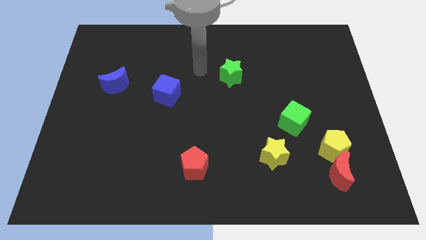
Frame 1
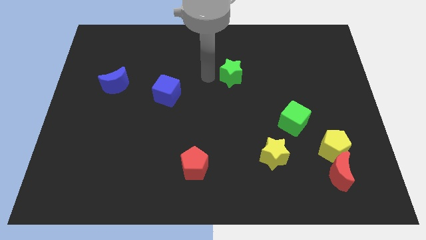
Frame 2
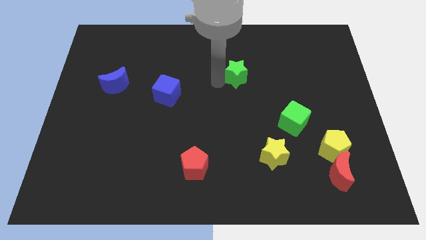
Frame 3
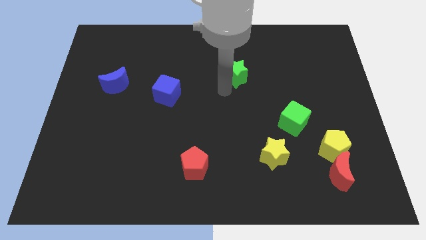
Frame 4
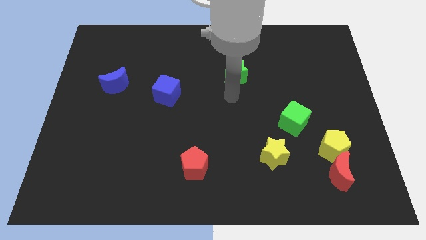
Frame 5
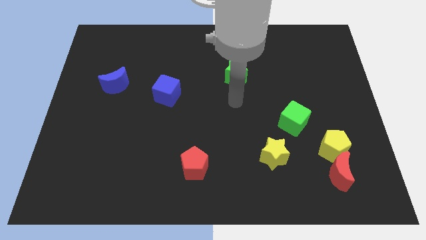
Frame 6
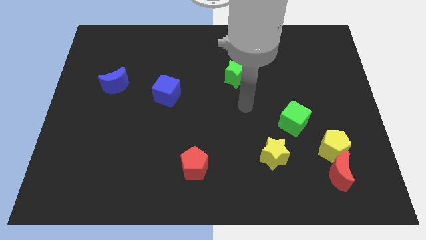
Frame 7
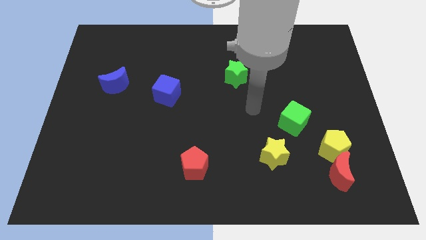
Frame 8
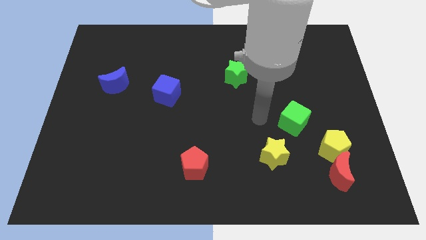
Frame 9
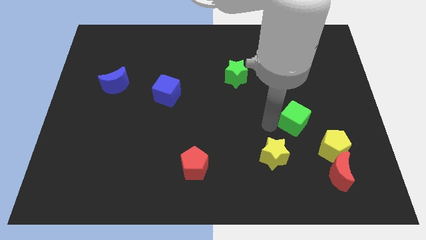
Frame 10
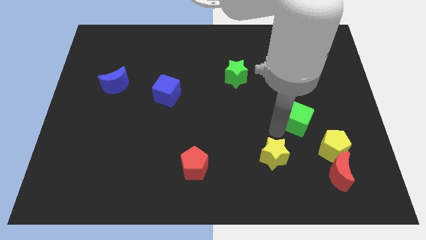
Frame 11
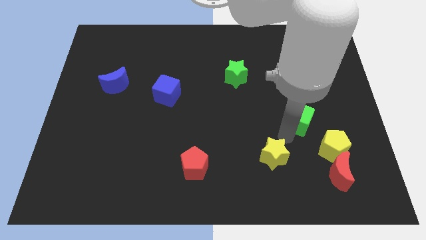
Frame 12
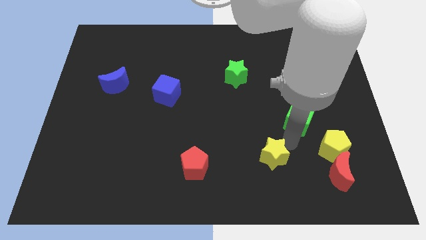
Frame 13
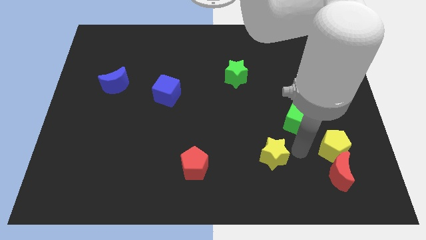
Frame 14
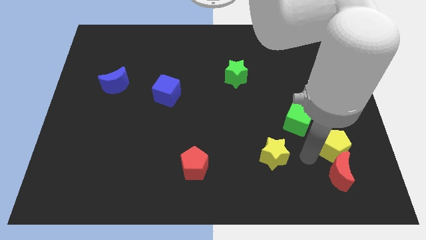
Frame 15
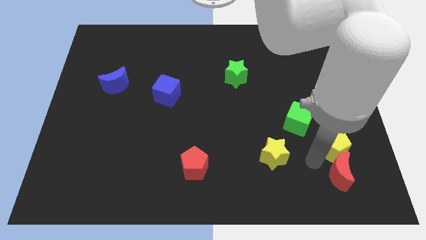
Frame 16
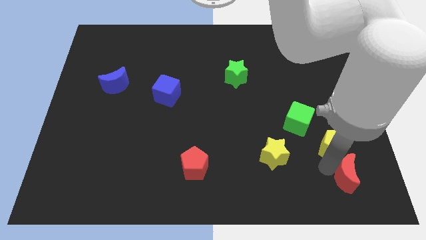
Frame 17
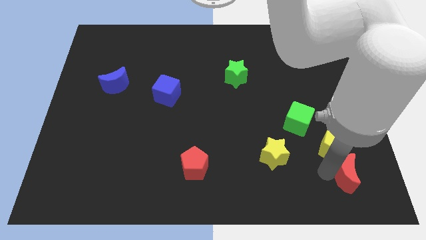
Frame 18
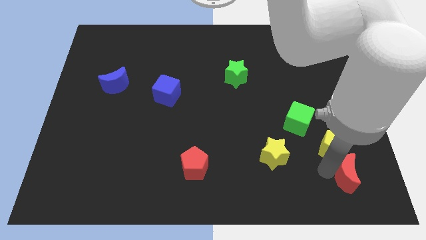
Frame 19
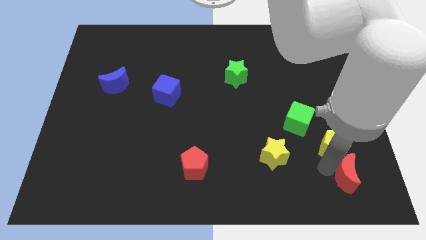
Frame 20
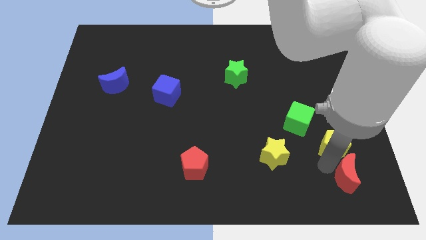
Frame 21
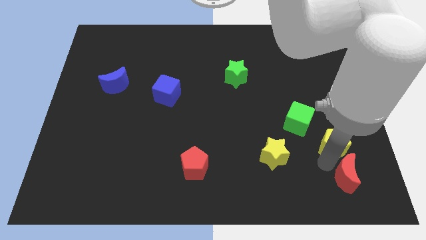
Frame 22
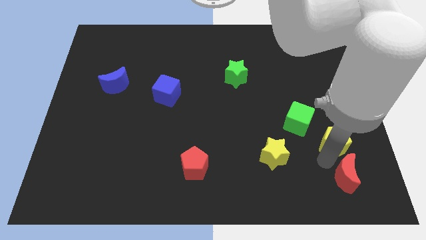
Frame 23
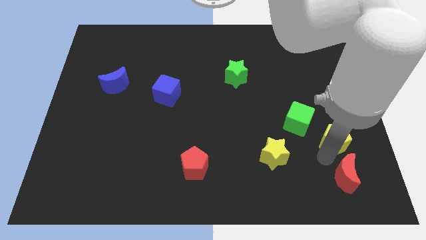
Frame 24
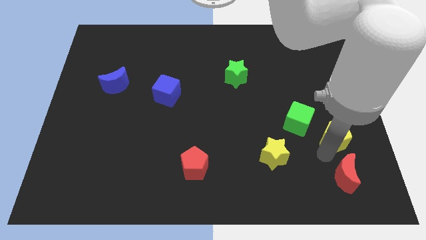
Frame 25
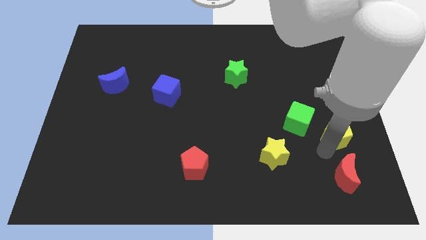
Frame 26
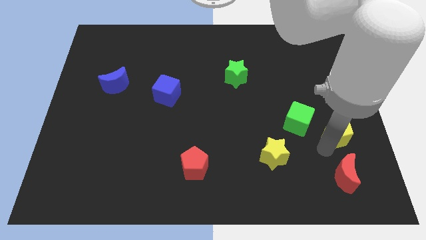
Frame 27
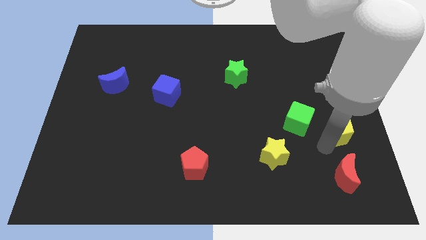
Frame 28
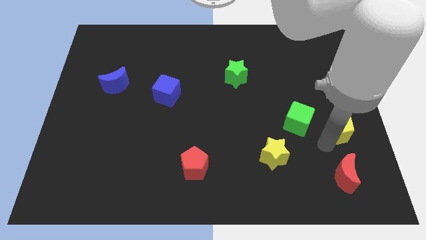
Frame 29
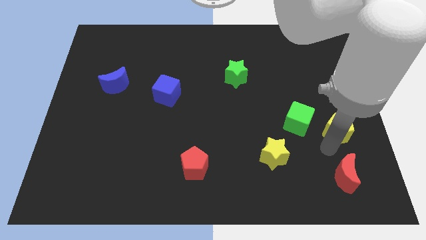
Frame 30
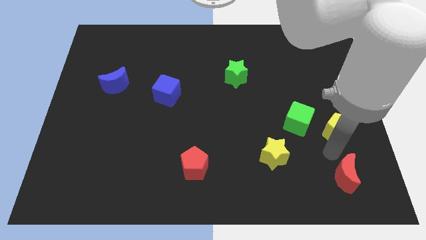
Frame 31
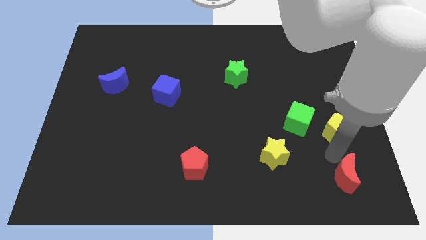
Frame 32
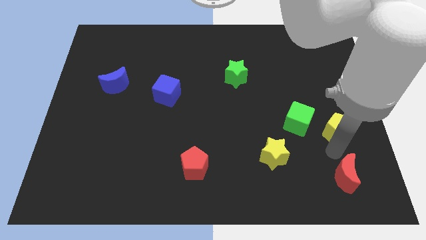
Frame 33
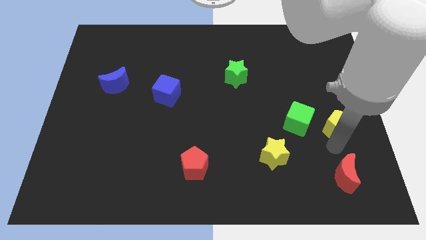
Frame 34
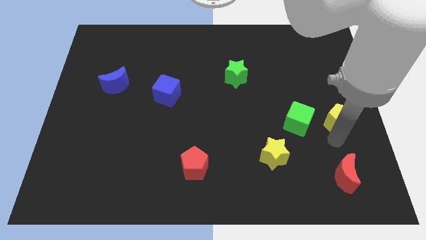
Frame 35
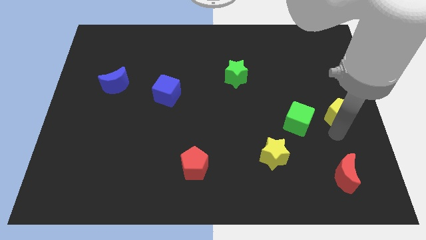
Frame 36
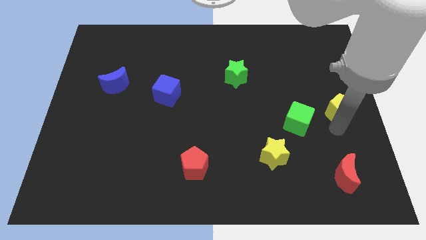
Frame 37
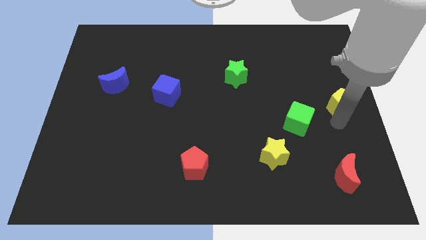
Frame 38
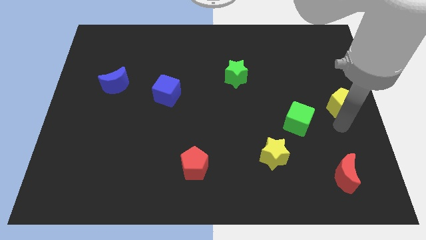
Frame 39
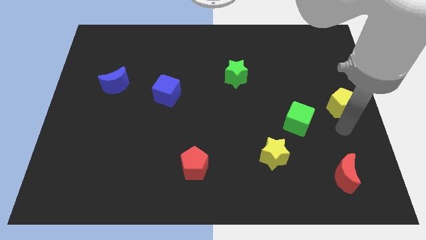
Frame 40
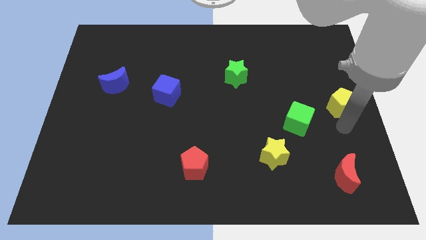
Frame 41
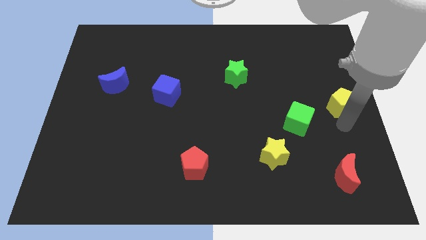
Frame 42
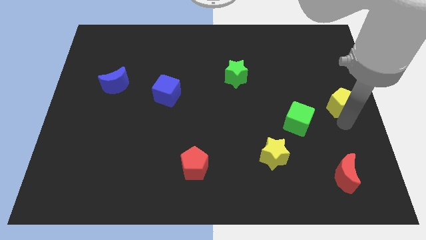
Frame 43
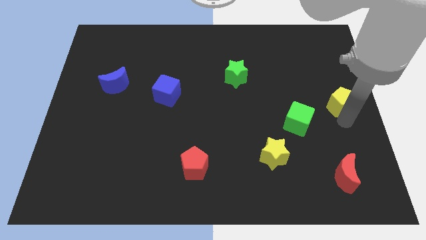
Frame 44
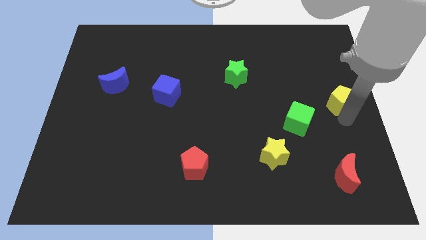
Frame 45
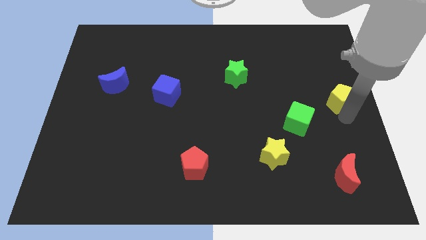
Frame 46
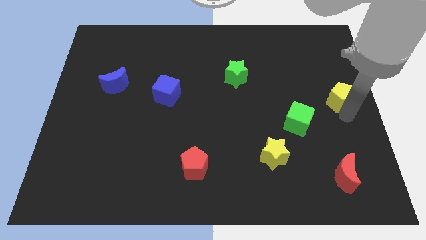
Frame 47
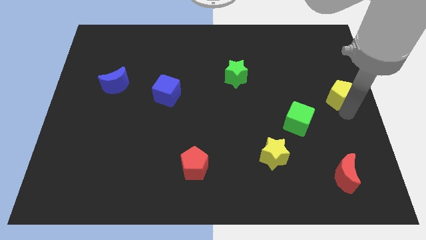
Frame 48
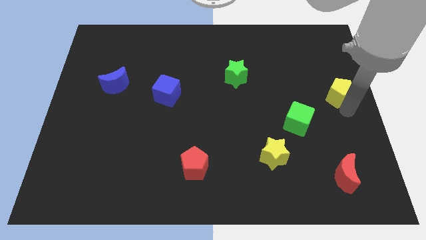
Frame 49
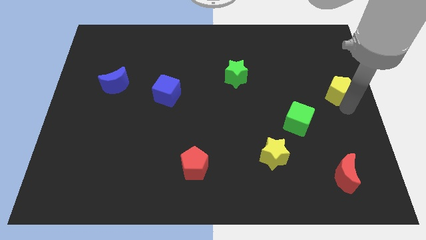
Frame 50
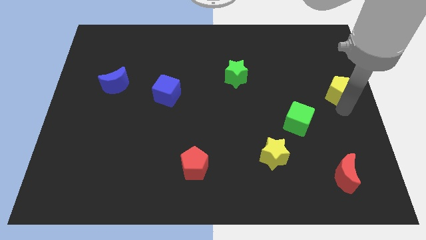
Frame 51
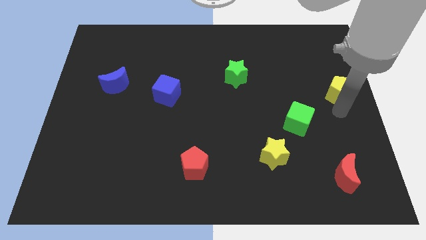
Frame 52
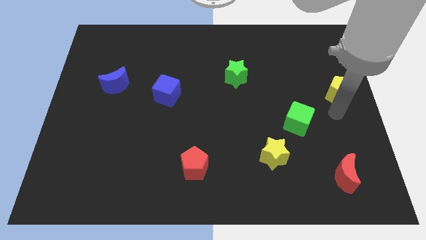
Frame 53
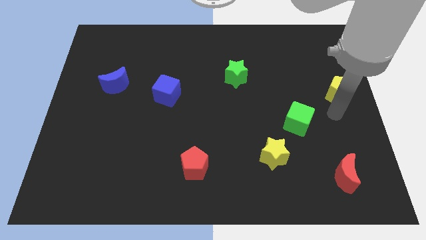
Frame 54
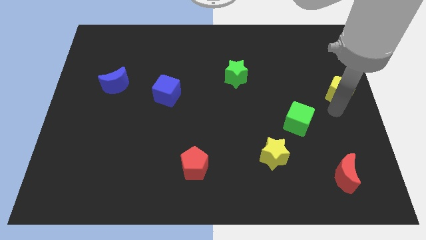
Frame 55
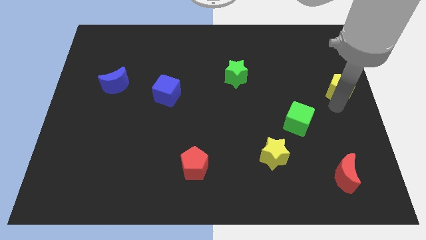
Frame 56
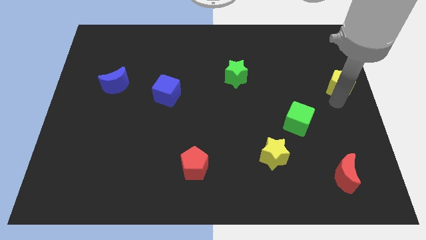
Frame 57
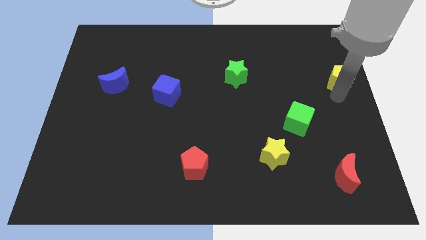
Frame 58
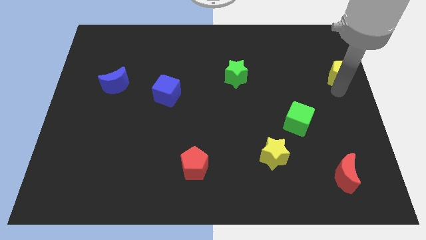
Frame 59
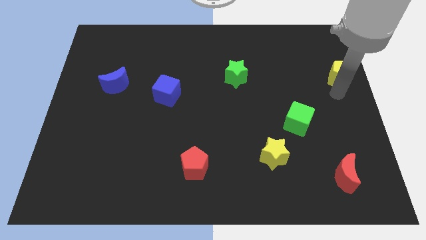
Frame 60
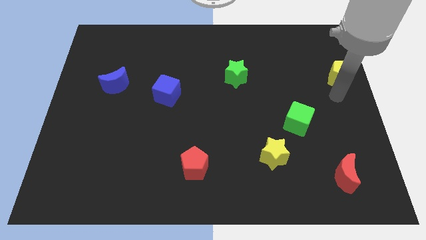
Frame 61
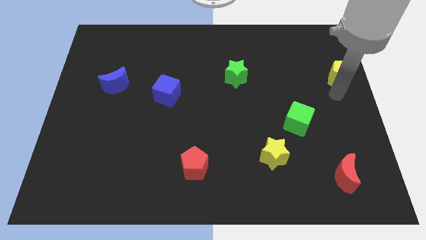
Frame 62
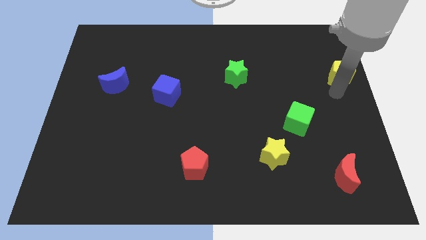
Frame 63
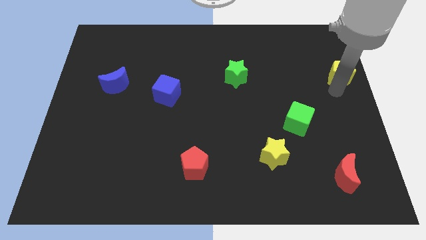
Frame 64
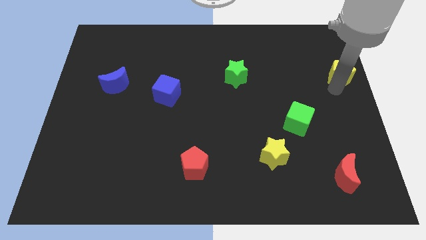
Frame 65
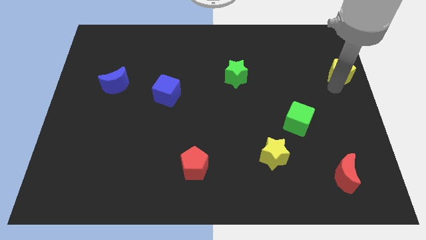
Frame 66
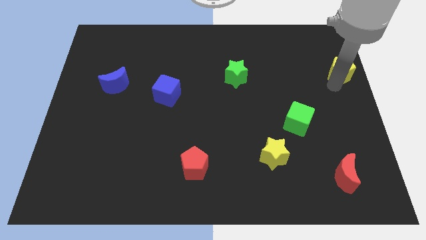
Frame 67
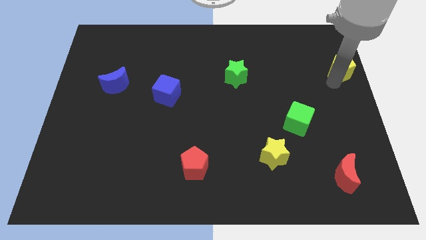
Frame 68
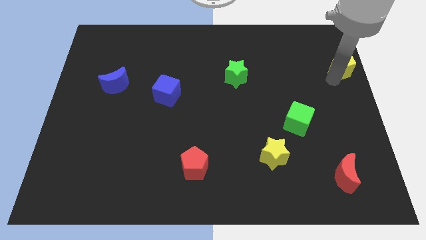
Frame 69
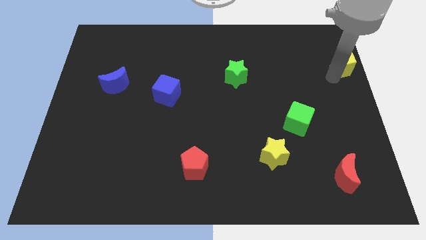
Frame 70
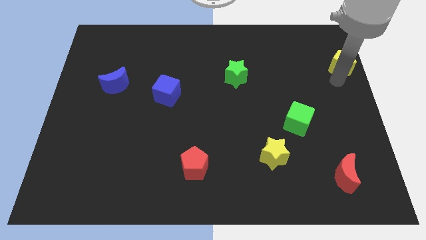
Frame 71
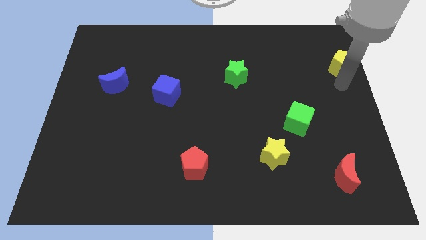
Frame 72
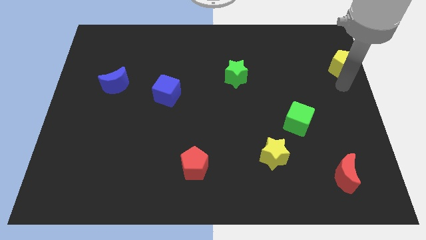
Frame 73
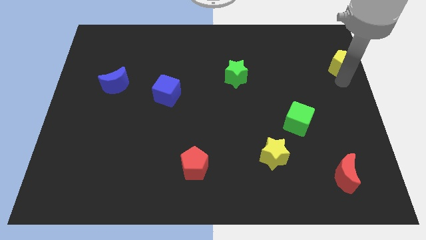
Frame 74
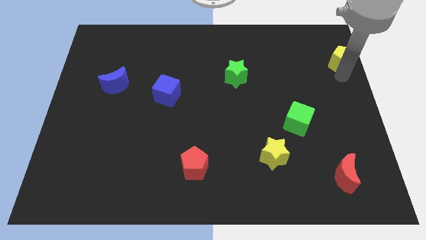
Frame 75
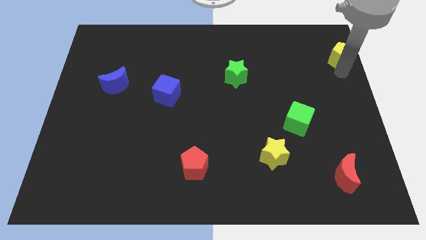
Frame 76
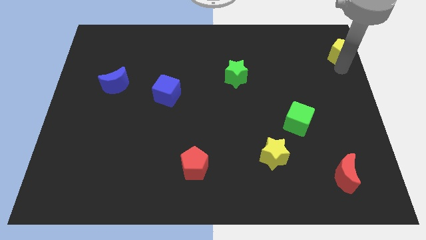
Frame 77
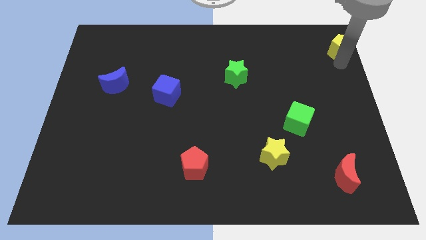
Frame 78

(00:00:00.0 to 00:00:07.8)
put the yellow pentagon to the top right
